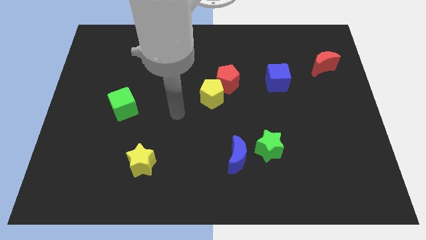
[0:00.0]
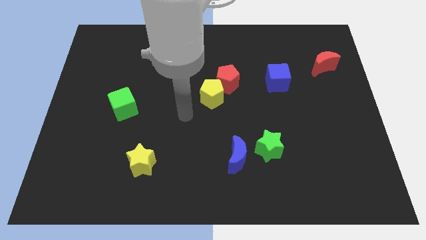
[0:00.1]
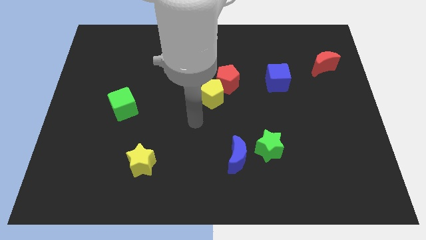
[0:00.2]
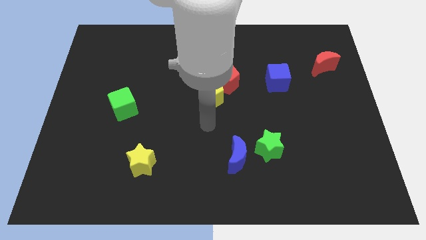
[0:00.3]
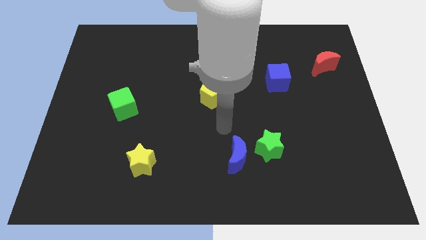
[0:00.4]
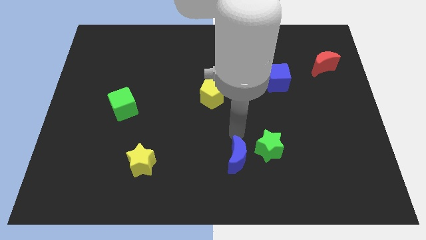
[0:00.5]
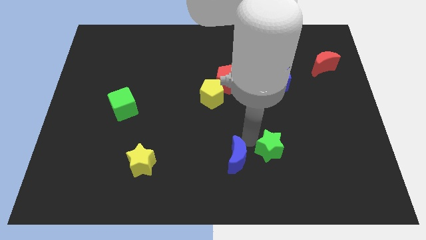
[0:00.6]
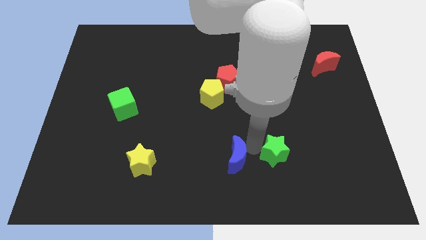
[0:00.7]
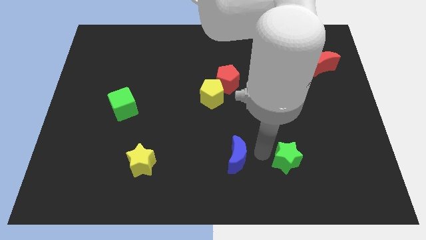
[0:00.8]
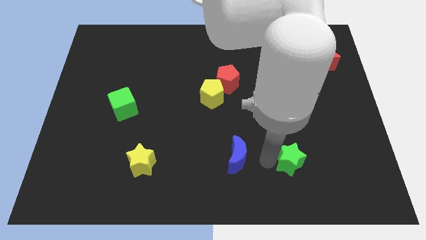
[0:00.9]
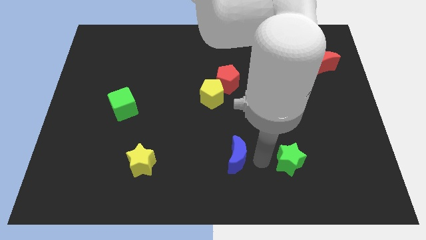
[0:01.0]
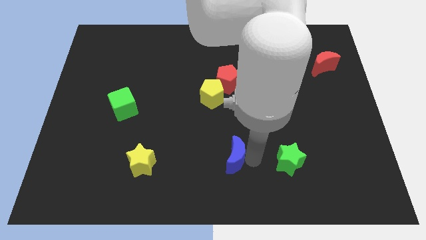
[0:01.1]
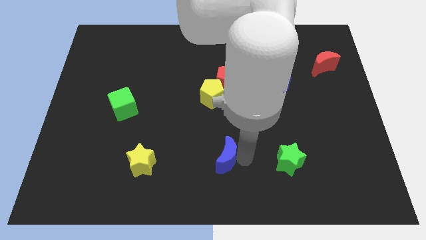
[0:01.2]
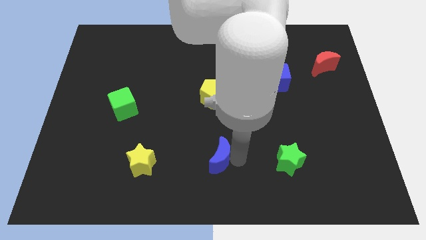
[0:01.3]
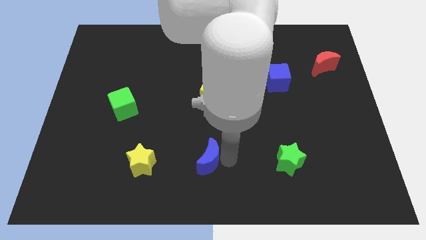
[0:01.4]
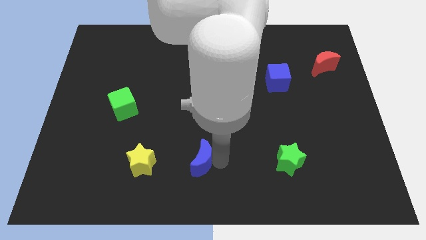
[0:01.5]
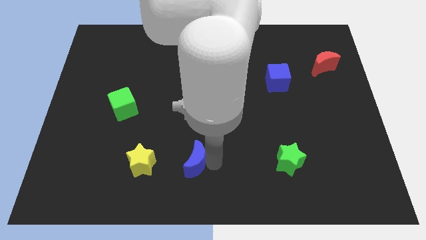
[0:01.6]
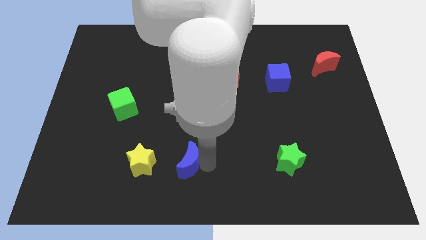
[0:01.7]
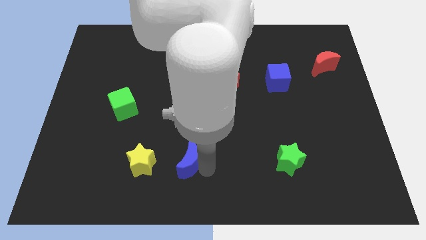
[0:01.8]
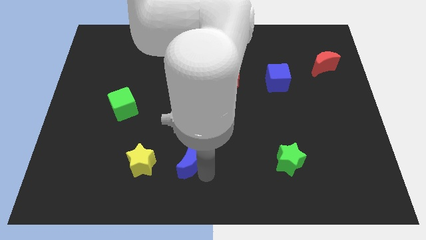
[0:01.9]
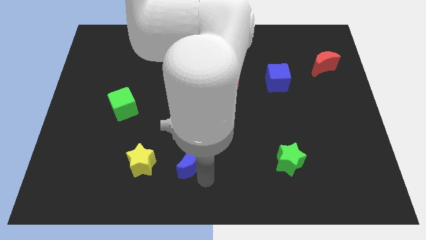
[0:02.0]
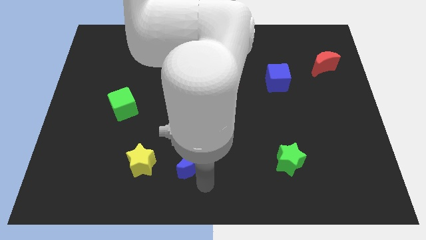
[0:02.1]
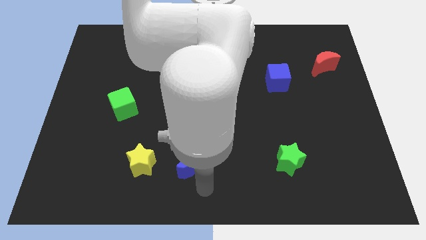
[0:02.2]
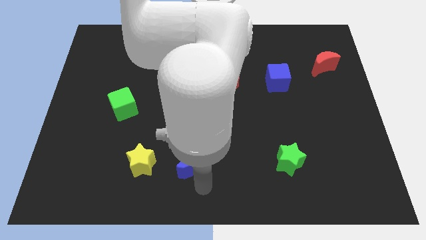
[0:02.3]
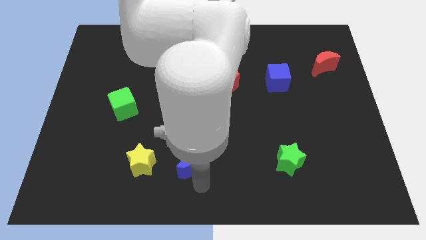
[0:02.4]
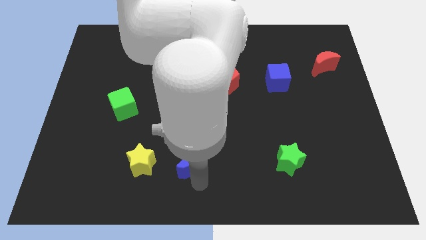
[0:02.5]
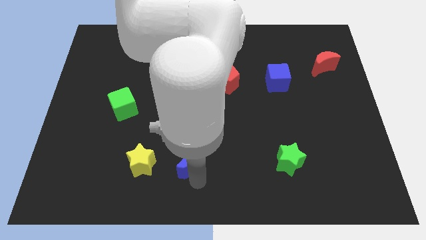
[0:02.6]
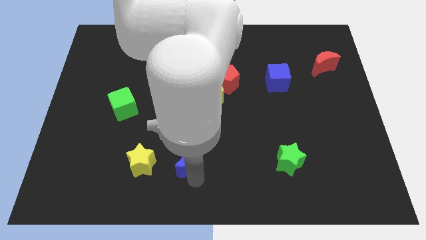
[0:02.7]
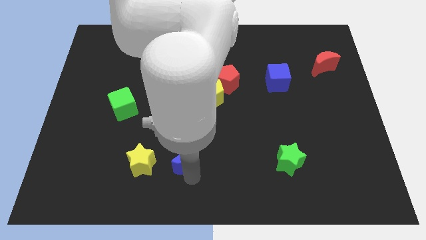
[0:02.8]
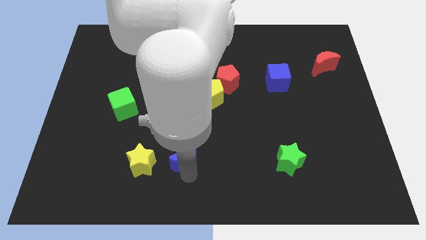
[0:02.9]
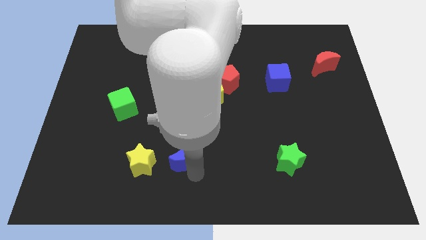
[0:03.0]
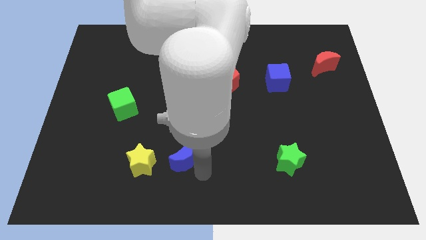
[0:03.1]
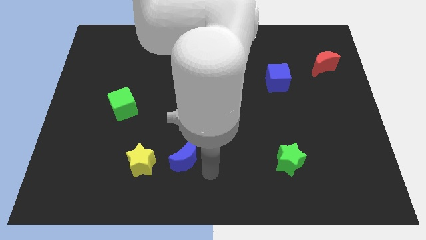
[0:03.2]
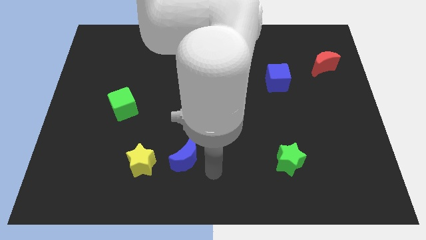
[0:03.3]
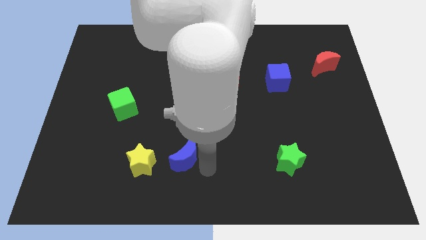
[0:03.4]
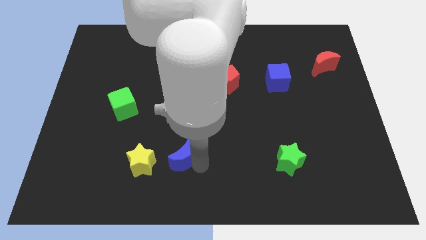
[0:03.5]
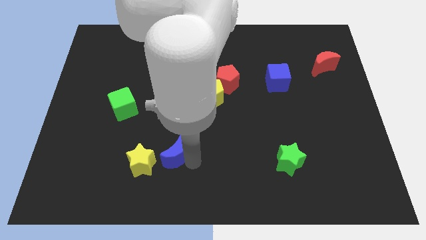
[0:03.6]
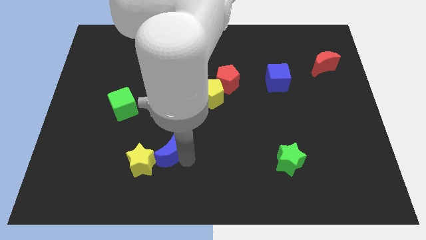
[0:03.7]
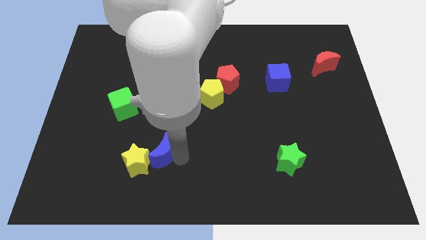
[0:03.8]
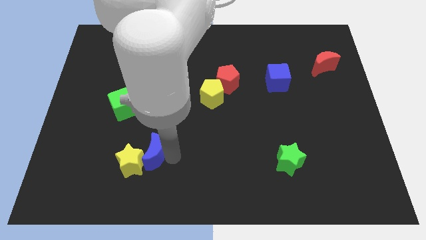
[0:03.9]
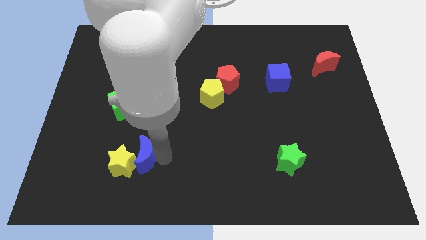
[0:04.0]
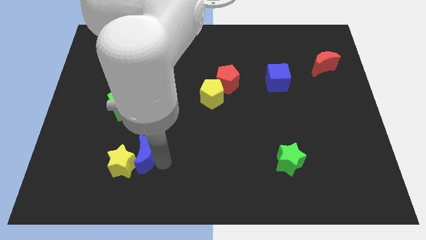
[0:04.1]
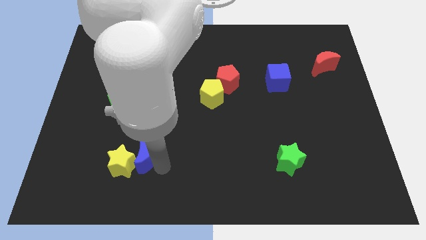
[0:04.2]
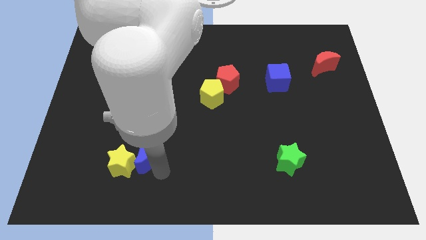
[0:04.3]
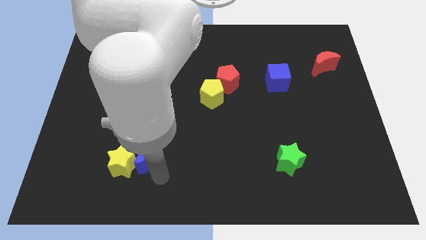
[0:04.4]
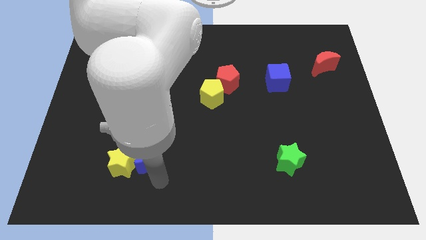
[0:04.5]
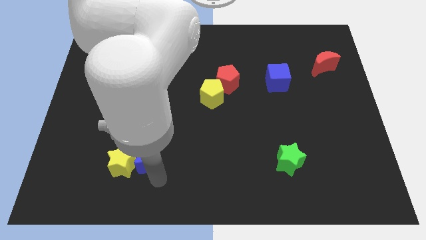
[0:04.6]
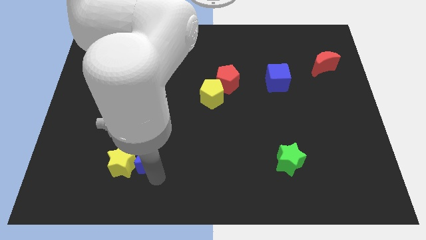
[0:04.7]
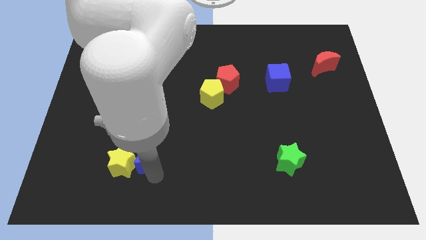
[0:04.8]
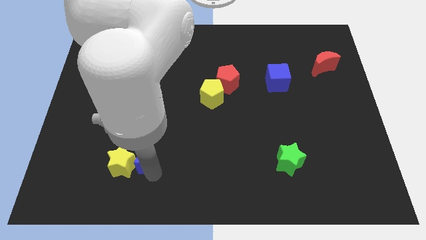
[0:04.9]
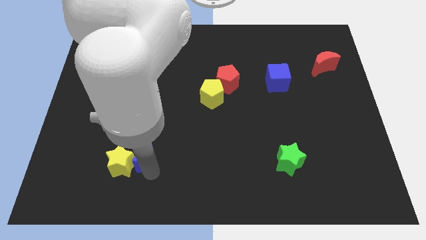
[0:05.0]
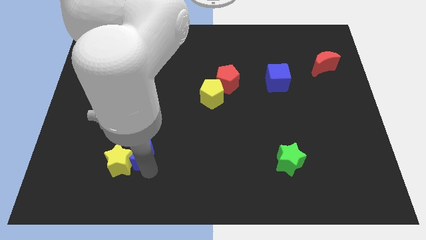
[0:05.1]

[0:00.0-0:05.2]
move the blue moon to the left

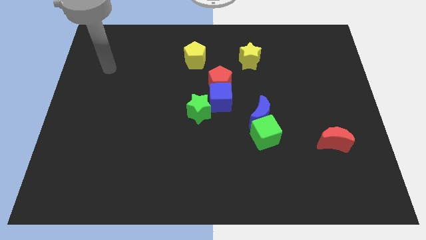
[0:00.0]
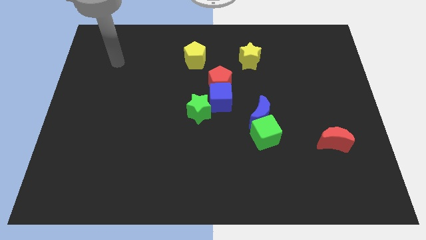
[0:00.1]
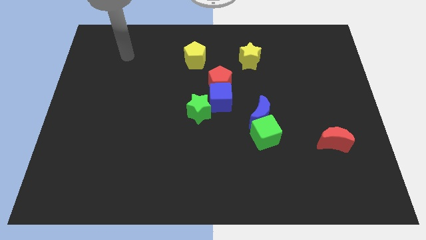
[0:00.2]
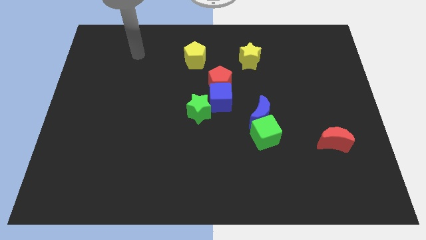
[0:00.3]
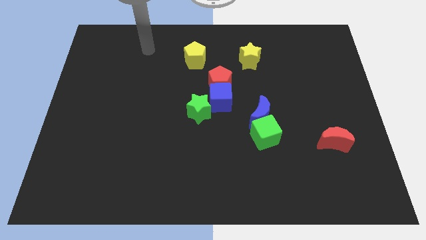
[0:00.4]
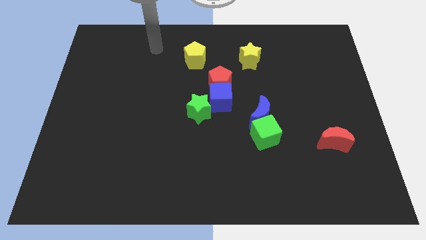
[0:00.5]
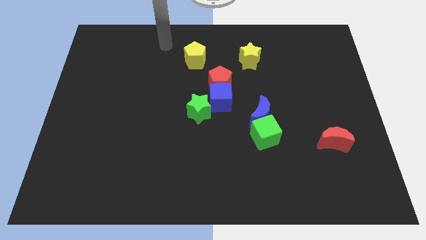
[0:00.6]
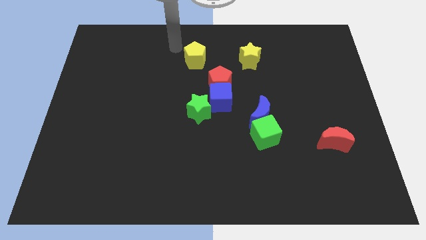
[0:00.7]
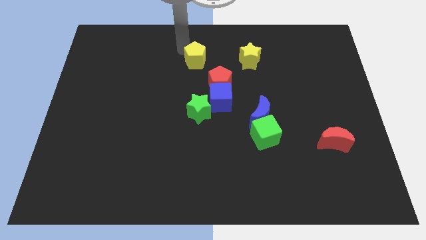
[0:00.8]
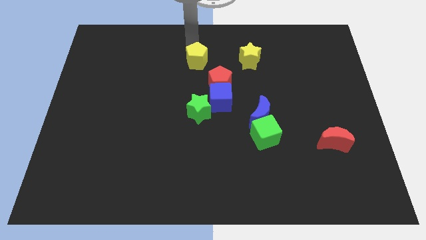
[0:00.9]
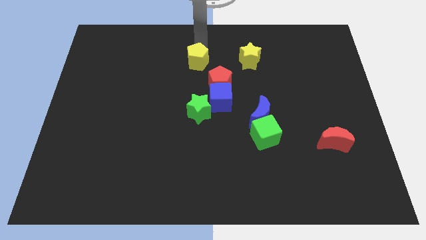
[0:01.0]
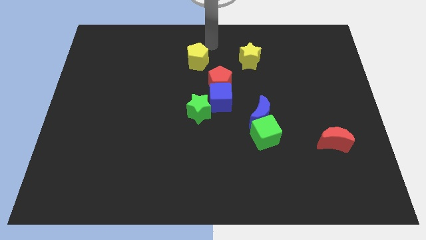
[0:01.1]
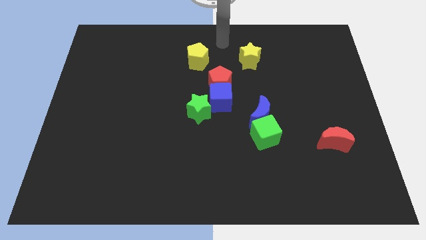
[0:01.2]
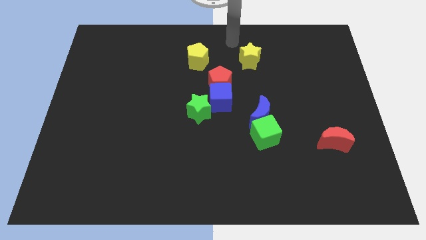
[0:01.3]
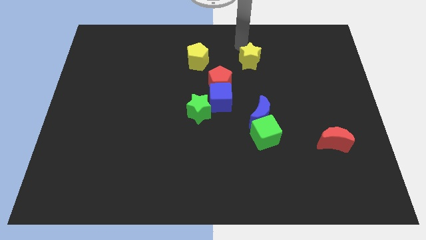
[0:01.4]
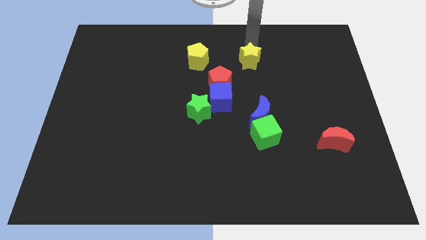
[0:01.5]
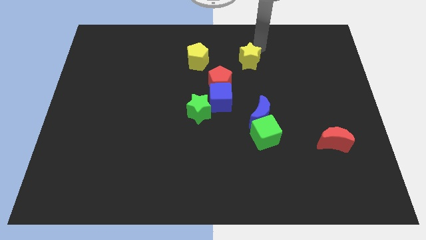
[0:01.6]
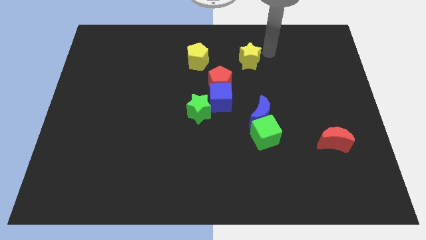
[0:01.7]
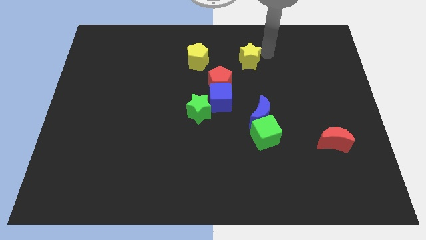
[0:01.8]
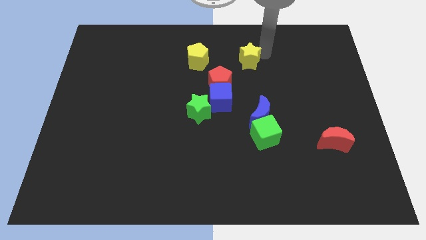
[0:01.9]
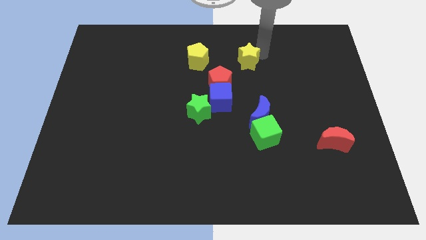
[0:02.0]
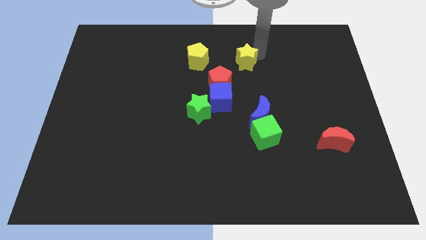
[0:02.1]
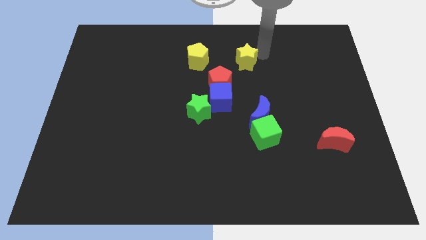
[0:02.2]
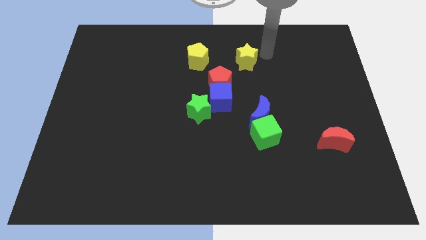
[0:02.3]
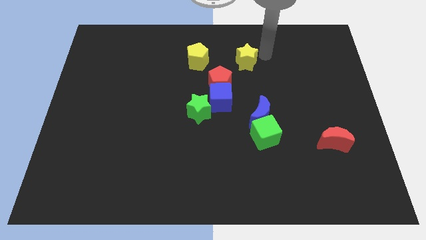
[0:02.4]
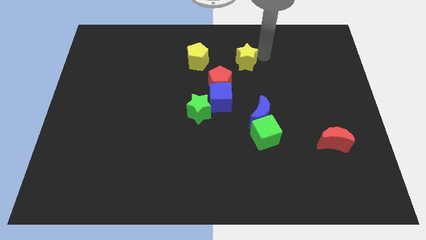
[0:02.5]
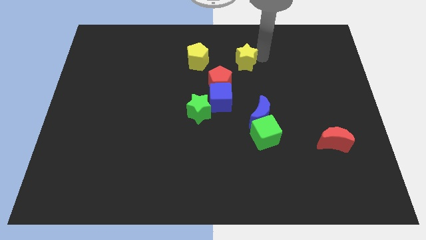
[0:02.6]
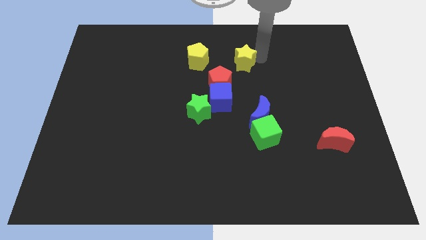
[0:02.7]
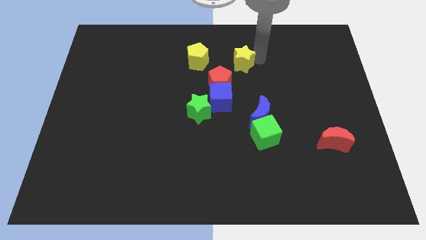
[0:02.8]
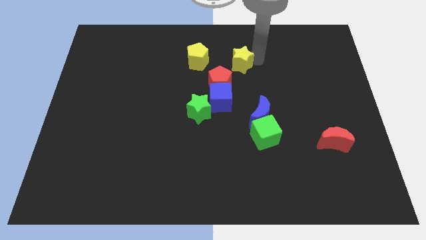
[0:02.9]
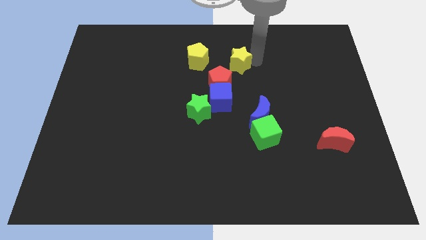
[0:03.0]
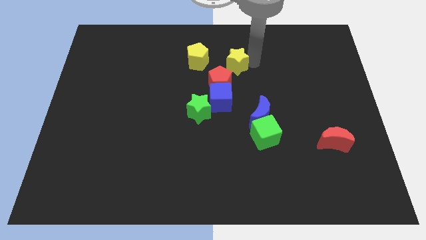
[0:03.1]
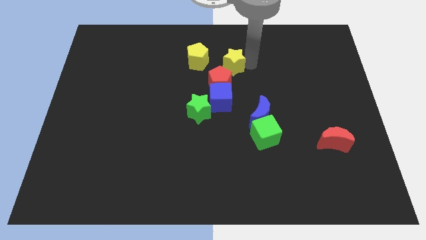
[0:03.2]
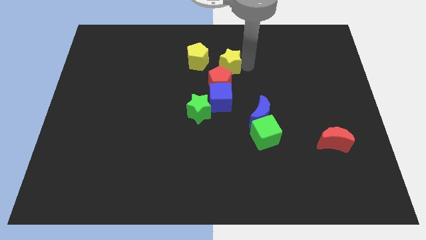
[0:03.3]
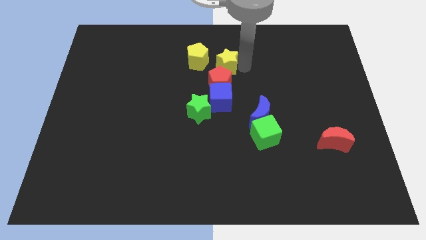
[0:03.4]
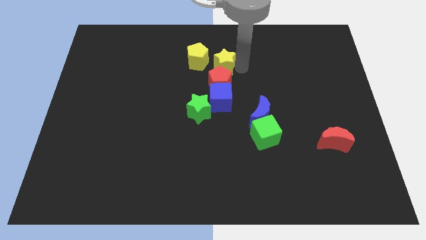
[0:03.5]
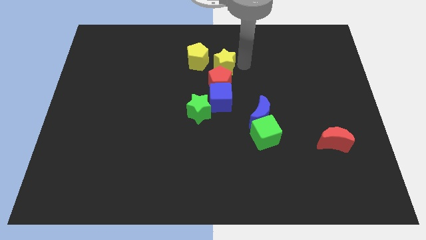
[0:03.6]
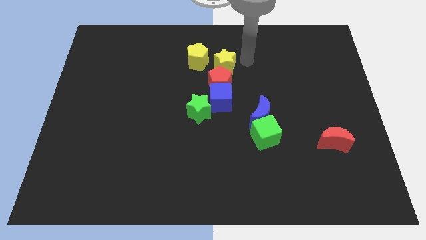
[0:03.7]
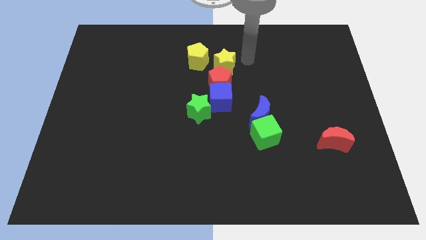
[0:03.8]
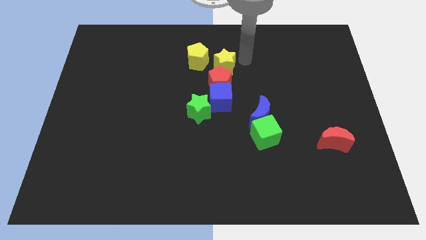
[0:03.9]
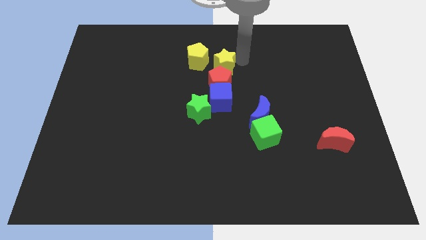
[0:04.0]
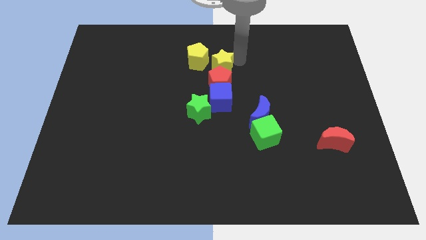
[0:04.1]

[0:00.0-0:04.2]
push the yellow star left a bit
